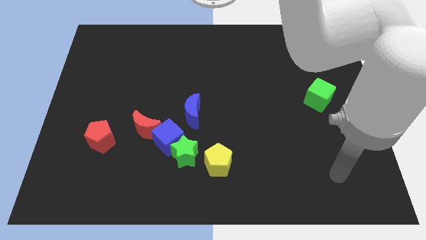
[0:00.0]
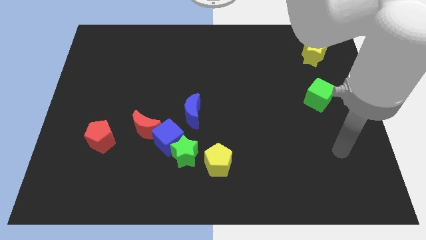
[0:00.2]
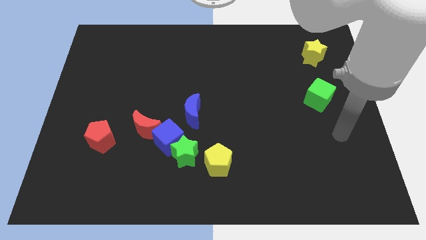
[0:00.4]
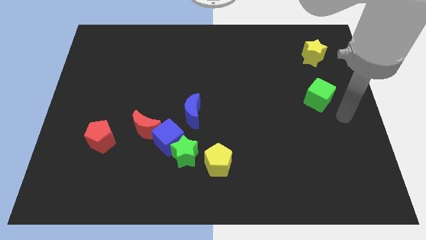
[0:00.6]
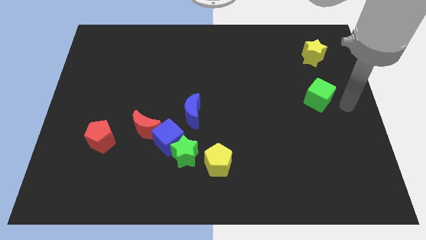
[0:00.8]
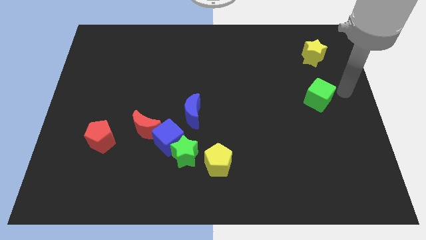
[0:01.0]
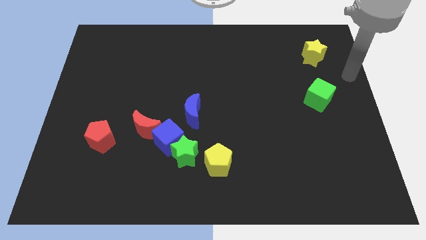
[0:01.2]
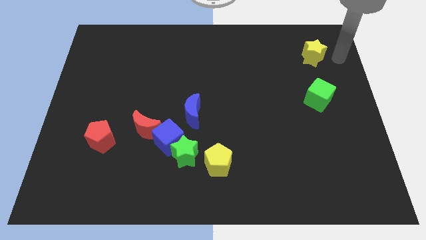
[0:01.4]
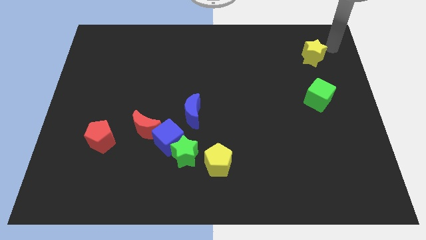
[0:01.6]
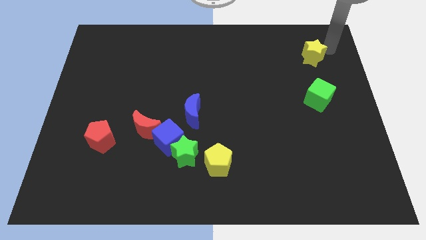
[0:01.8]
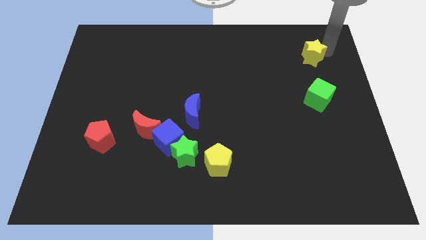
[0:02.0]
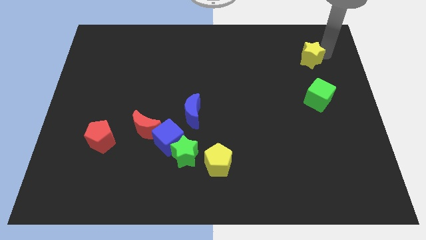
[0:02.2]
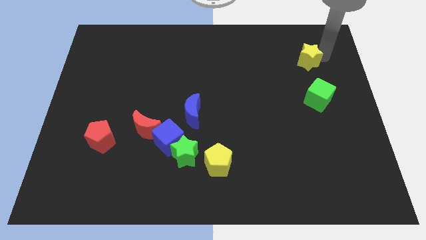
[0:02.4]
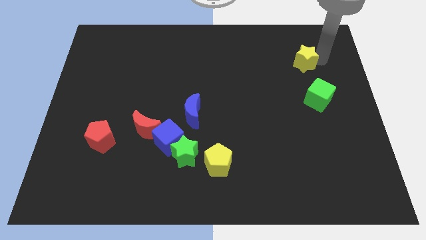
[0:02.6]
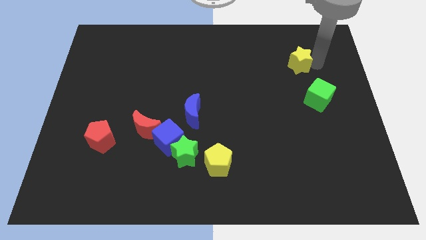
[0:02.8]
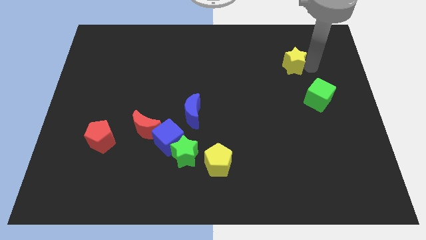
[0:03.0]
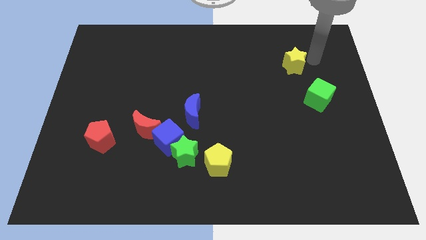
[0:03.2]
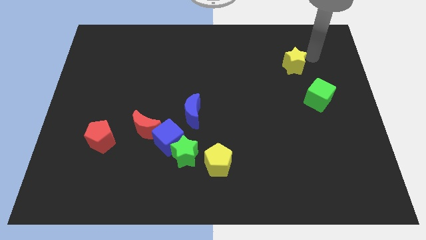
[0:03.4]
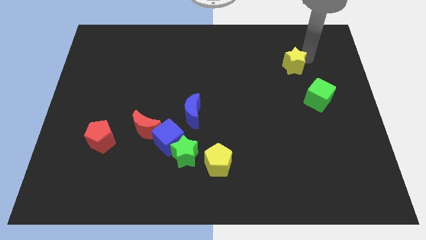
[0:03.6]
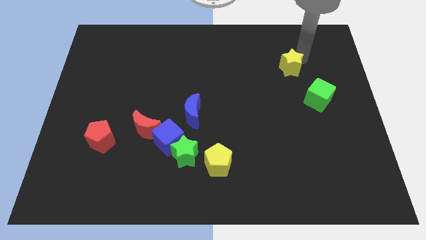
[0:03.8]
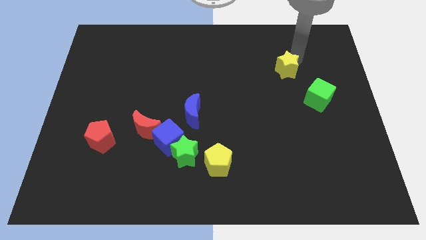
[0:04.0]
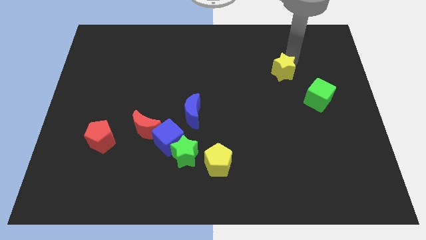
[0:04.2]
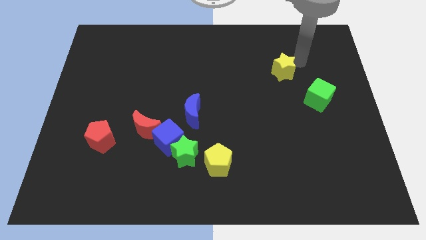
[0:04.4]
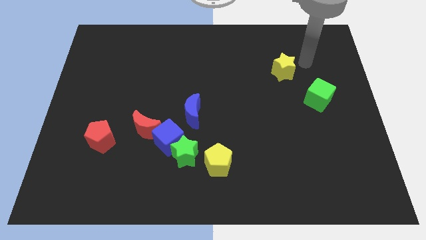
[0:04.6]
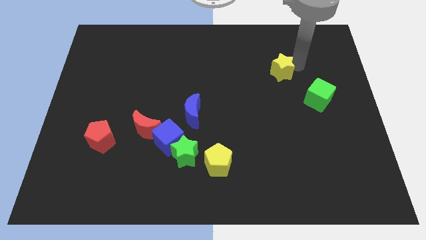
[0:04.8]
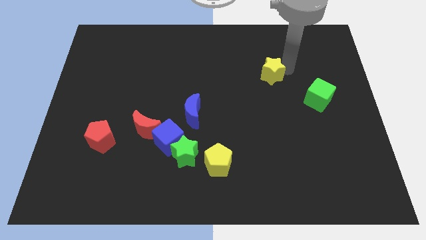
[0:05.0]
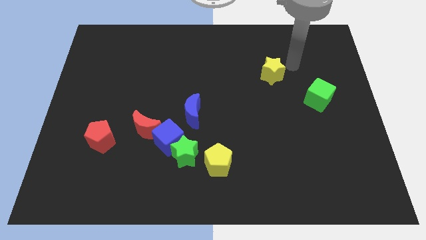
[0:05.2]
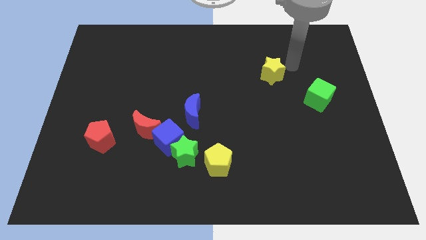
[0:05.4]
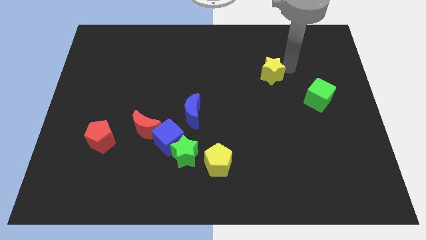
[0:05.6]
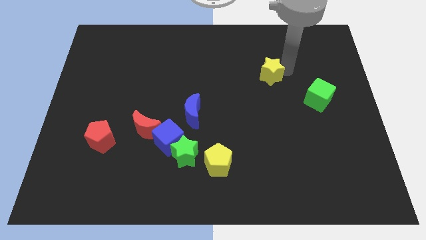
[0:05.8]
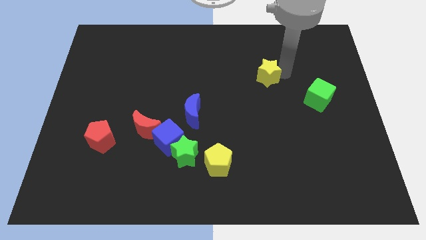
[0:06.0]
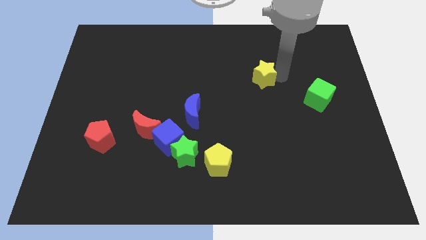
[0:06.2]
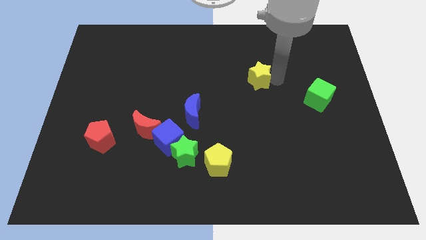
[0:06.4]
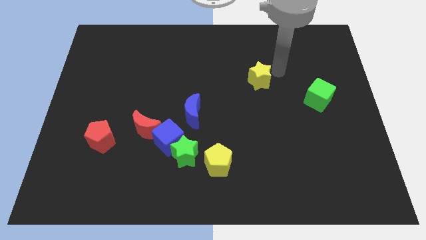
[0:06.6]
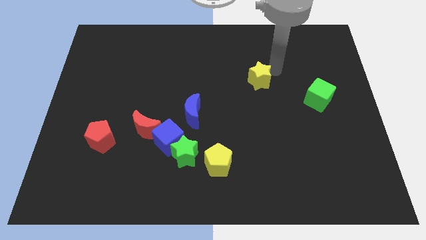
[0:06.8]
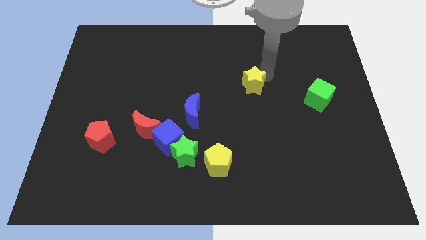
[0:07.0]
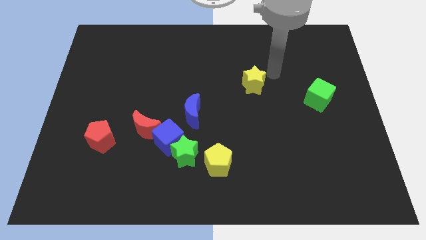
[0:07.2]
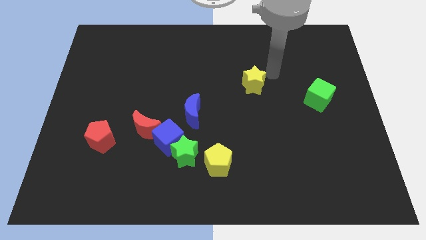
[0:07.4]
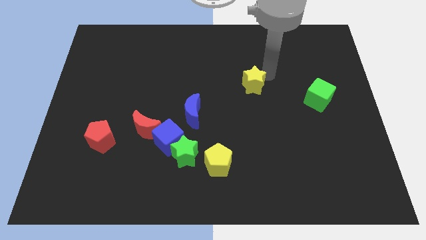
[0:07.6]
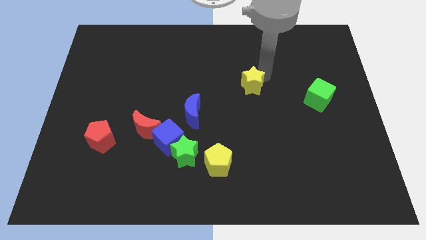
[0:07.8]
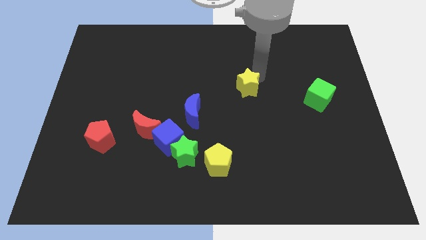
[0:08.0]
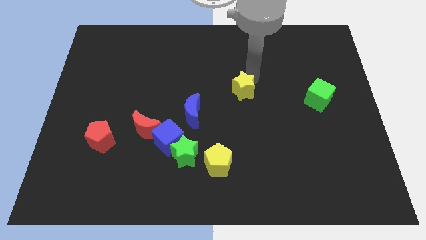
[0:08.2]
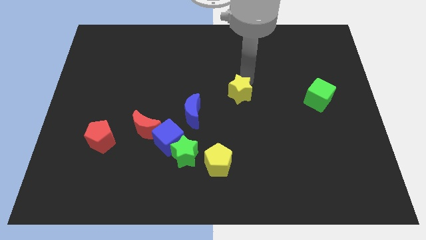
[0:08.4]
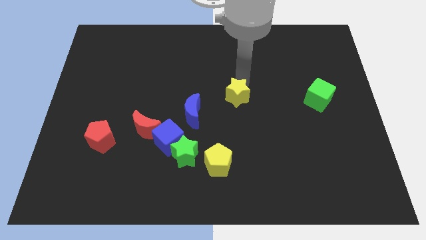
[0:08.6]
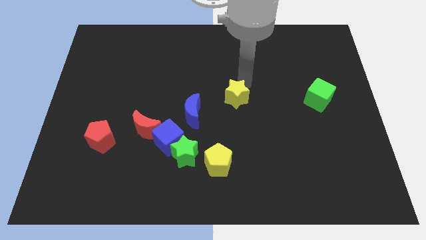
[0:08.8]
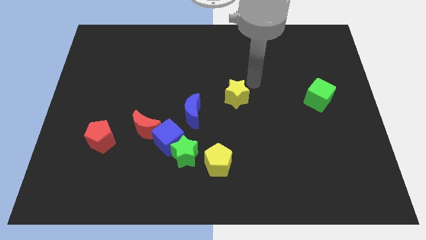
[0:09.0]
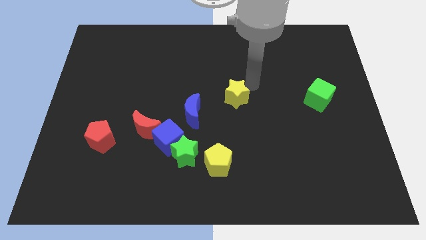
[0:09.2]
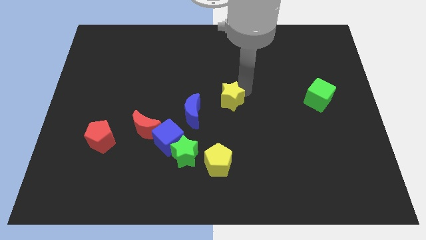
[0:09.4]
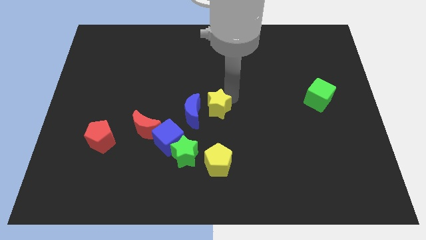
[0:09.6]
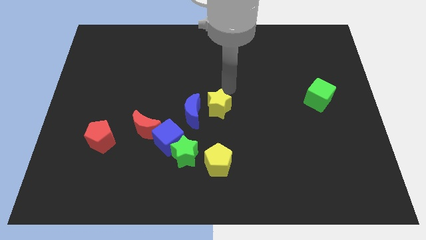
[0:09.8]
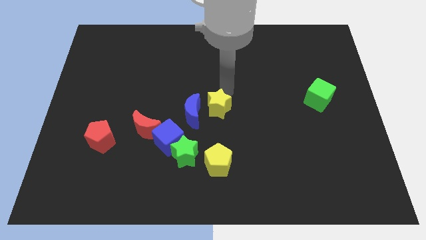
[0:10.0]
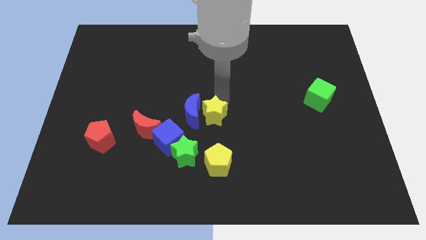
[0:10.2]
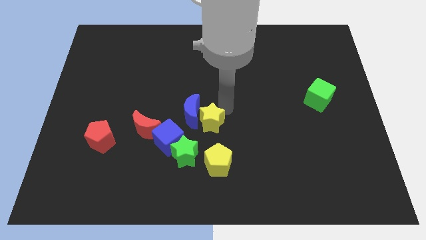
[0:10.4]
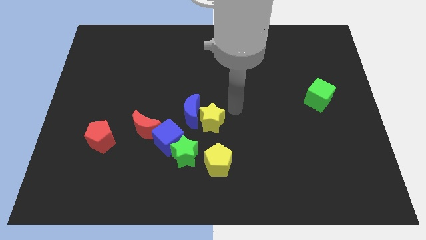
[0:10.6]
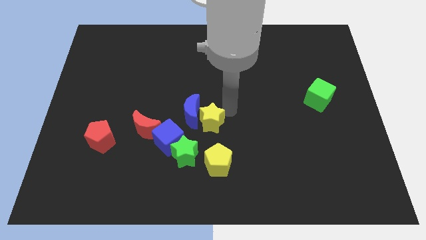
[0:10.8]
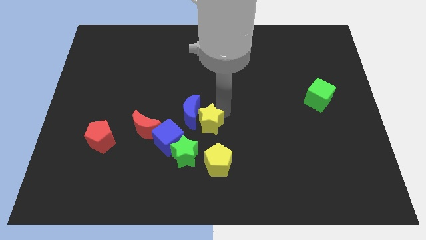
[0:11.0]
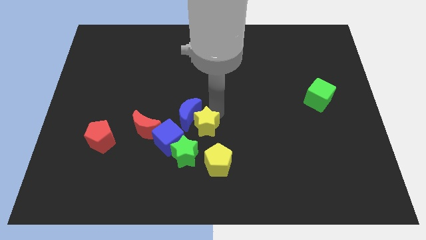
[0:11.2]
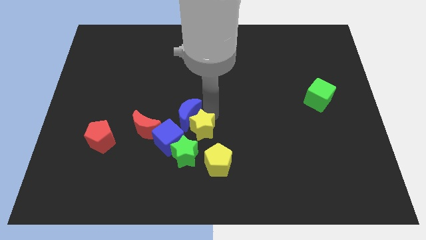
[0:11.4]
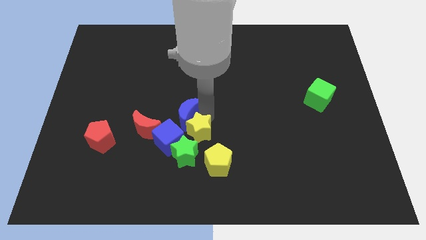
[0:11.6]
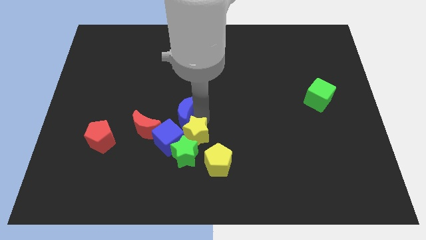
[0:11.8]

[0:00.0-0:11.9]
move the yellow star to the blue cube

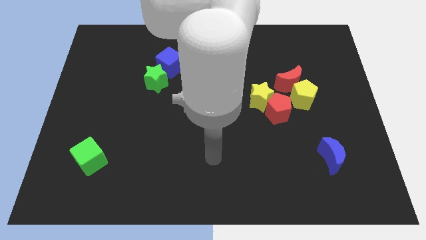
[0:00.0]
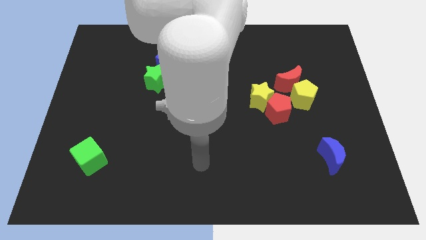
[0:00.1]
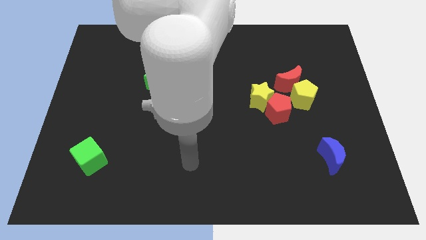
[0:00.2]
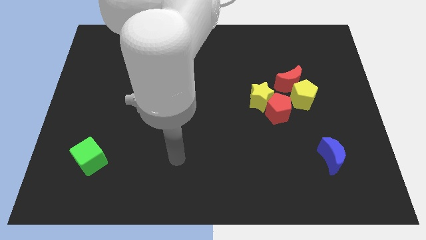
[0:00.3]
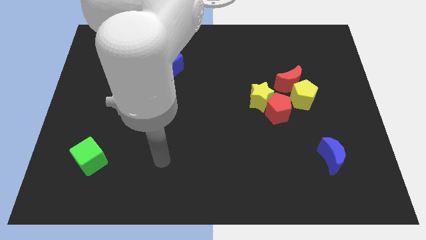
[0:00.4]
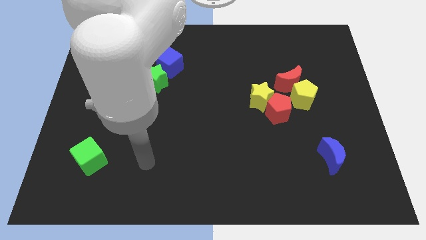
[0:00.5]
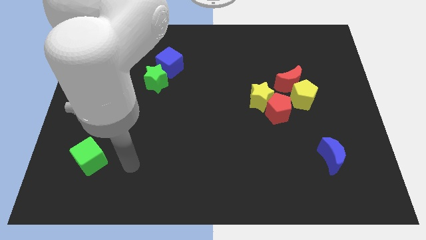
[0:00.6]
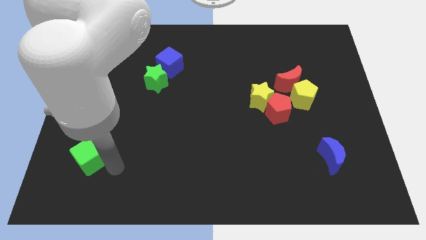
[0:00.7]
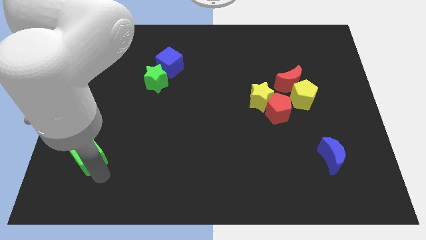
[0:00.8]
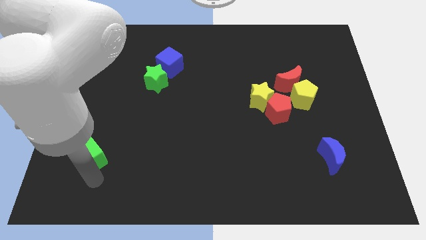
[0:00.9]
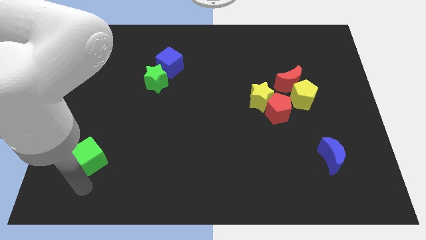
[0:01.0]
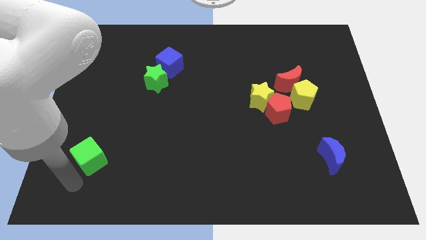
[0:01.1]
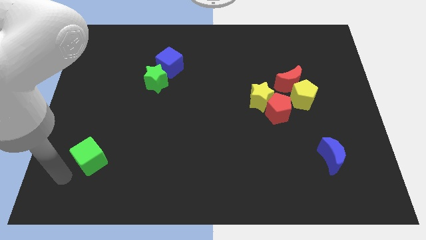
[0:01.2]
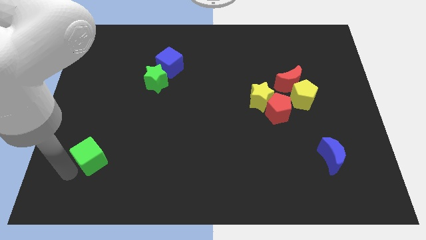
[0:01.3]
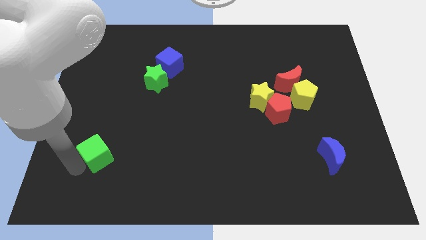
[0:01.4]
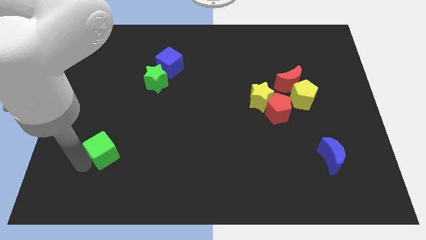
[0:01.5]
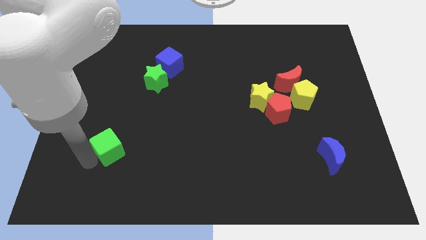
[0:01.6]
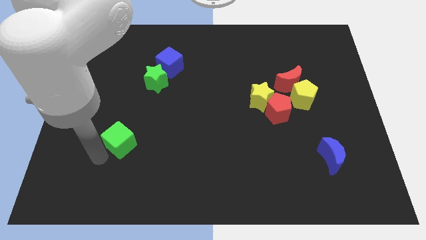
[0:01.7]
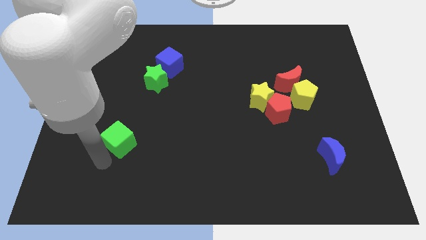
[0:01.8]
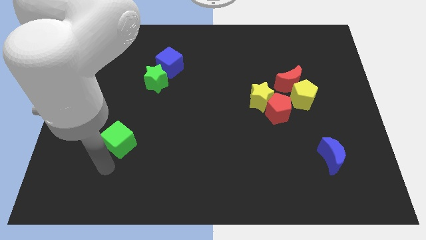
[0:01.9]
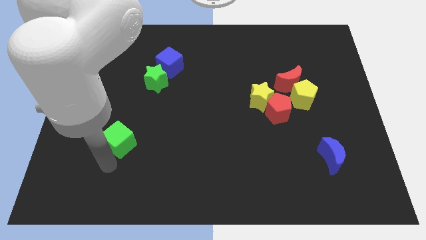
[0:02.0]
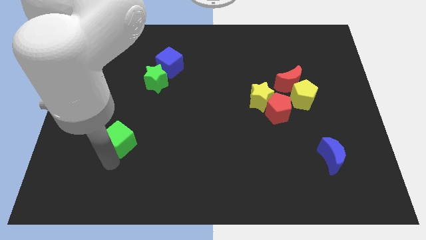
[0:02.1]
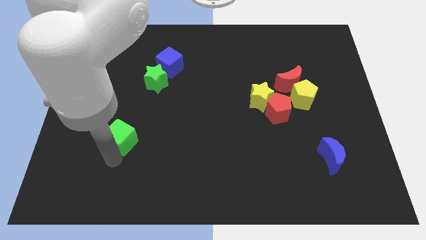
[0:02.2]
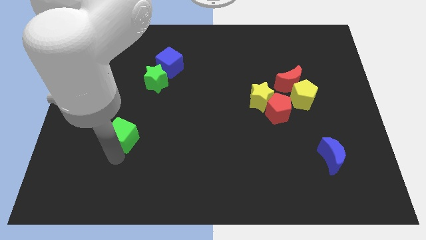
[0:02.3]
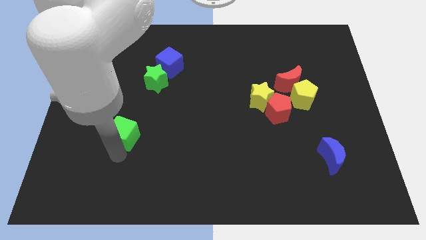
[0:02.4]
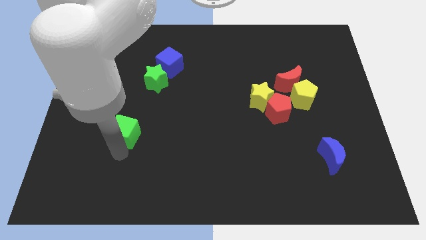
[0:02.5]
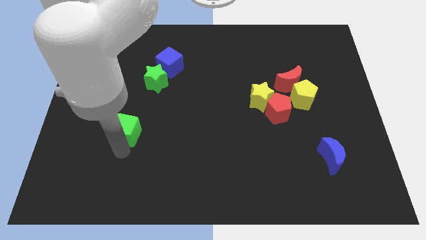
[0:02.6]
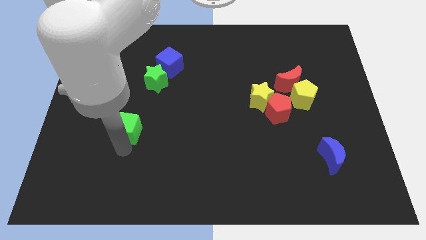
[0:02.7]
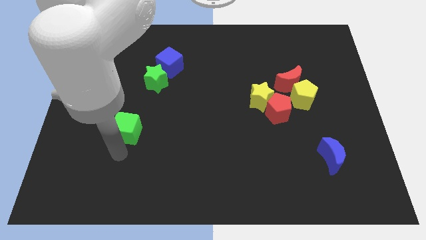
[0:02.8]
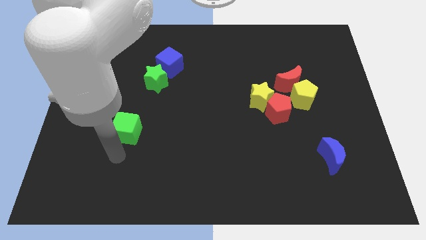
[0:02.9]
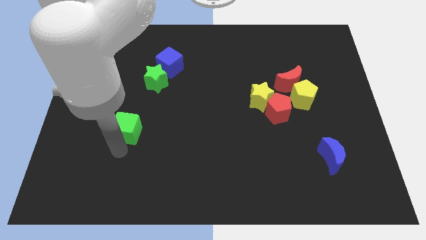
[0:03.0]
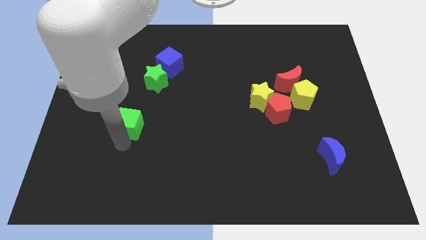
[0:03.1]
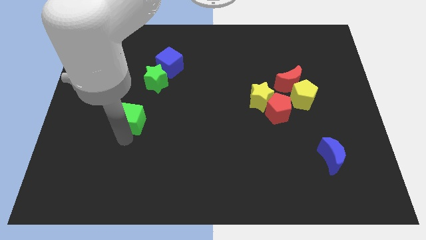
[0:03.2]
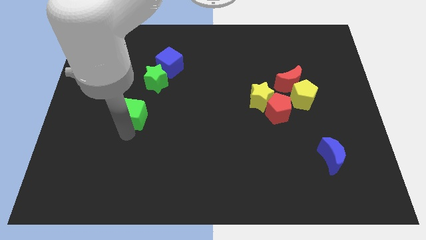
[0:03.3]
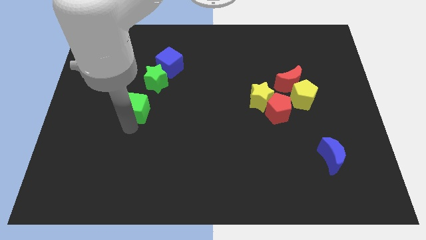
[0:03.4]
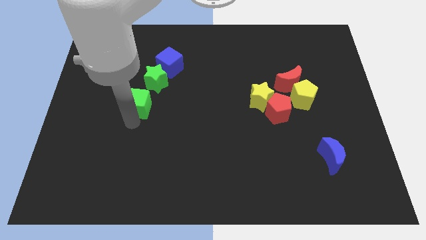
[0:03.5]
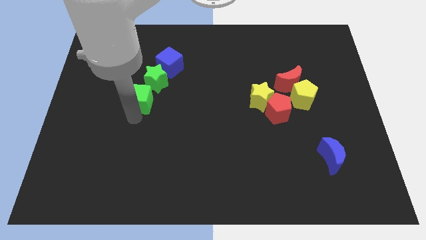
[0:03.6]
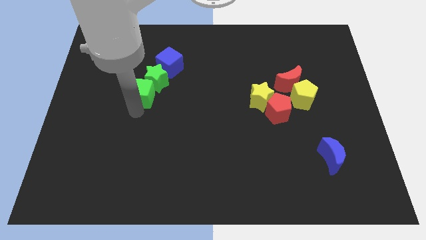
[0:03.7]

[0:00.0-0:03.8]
move the green cube next to the green star
